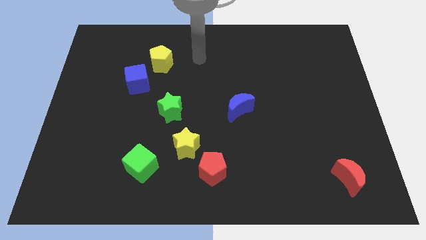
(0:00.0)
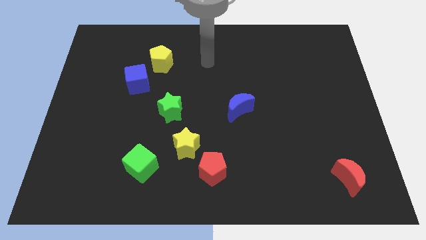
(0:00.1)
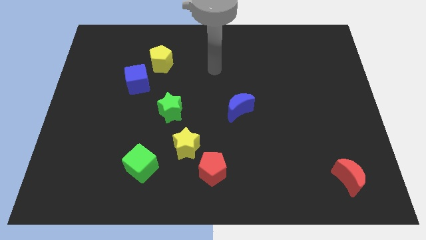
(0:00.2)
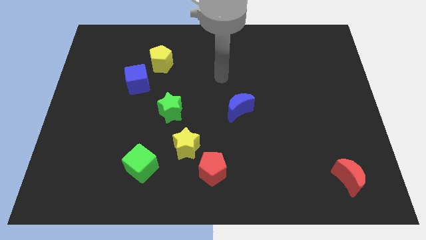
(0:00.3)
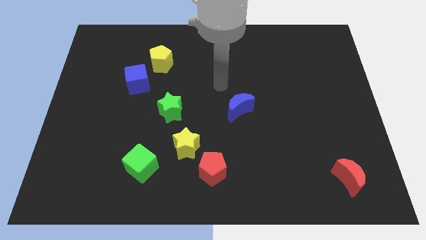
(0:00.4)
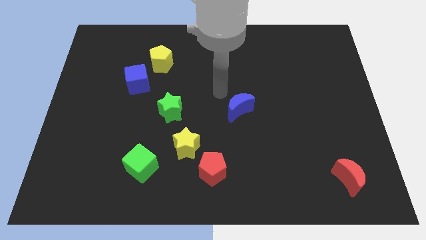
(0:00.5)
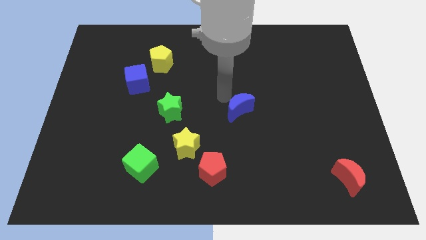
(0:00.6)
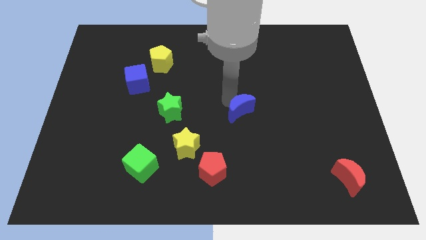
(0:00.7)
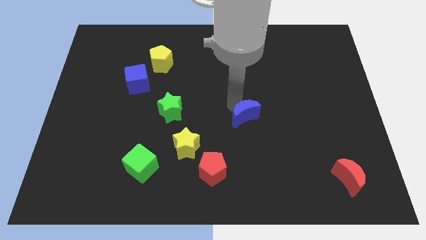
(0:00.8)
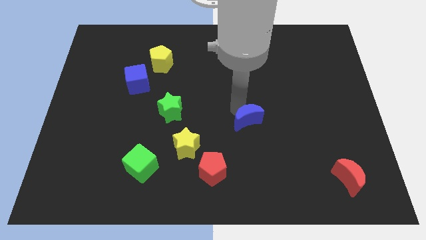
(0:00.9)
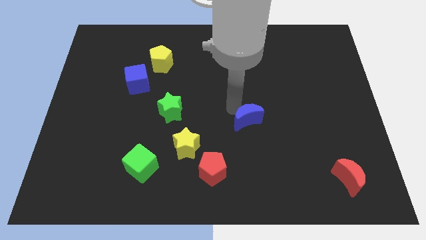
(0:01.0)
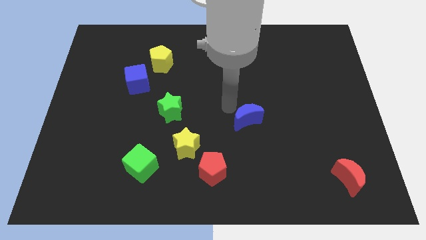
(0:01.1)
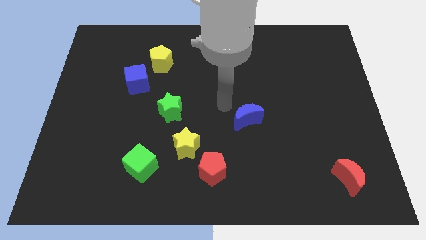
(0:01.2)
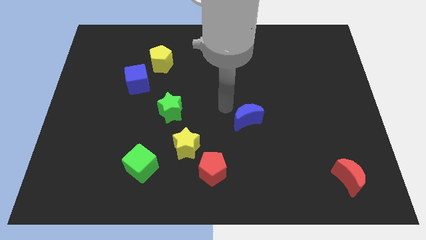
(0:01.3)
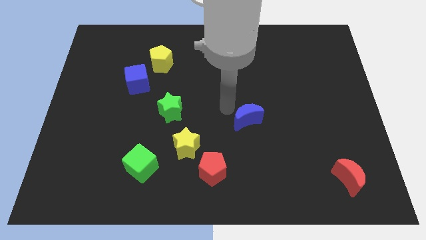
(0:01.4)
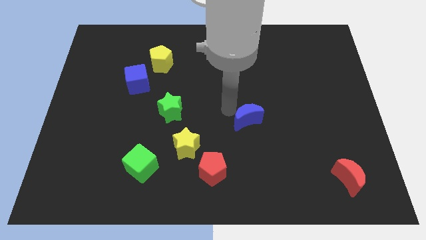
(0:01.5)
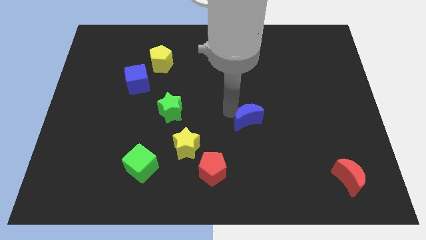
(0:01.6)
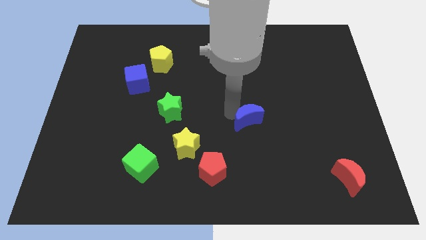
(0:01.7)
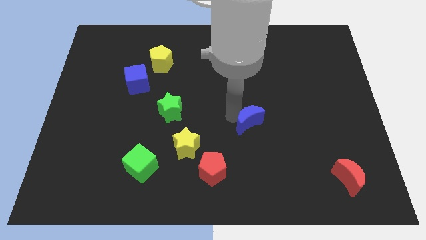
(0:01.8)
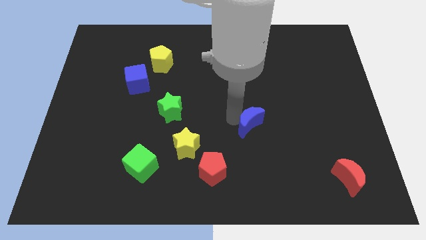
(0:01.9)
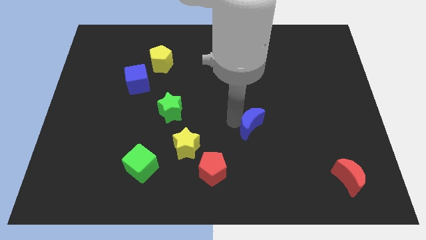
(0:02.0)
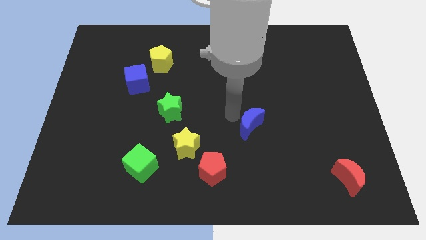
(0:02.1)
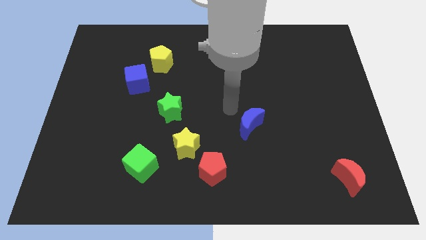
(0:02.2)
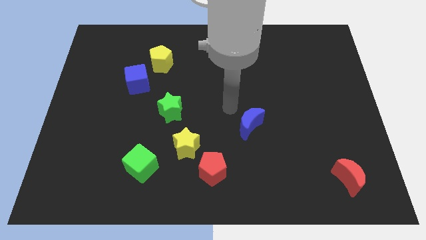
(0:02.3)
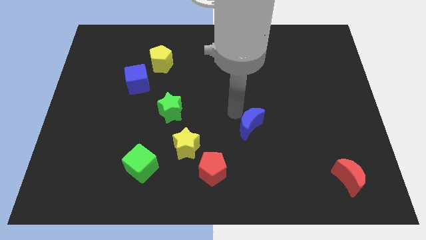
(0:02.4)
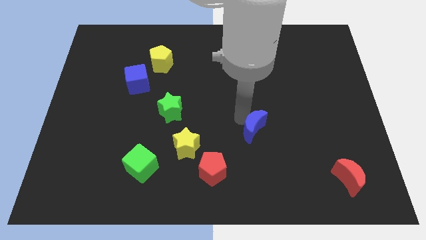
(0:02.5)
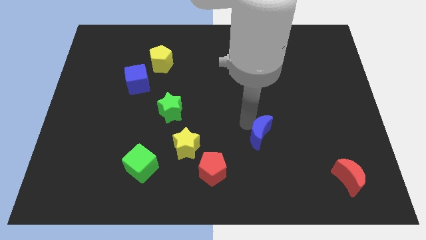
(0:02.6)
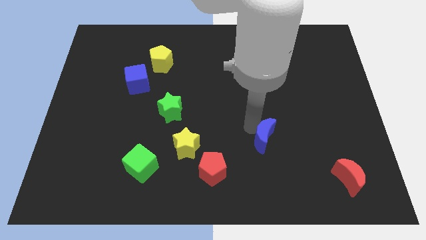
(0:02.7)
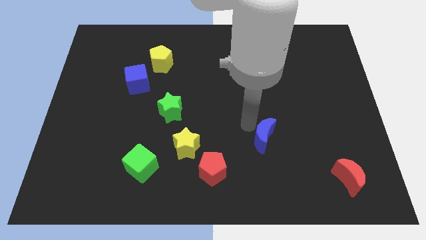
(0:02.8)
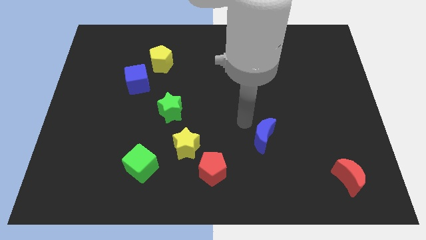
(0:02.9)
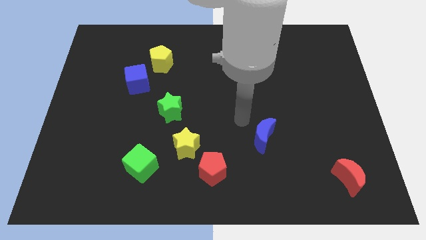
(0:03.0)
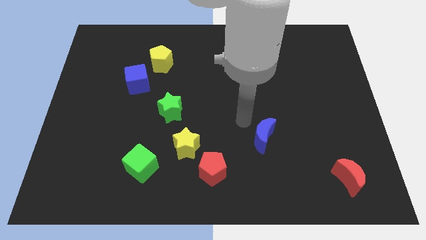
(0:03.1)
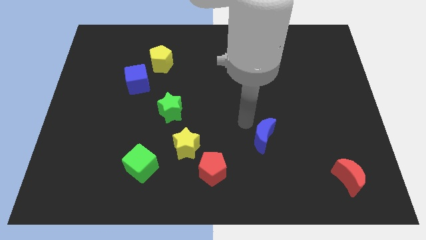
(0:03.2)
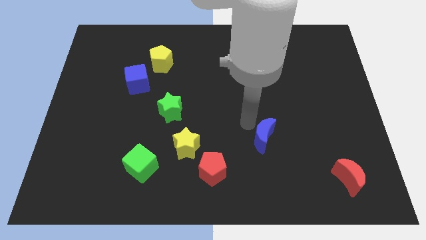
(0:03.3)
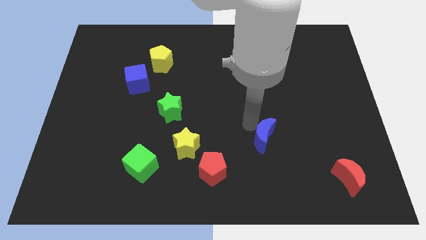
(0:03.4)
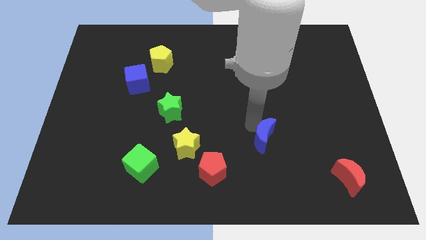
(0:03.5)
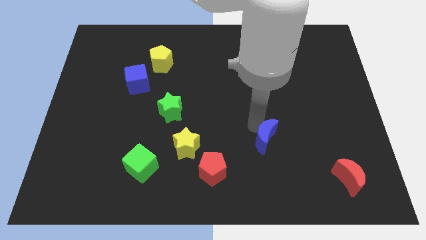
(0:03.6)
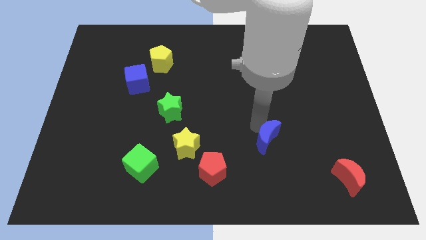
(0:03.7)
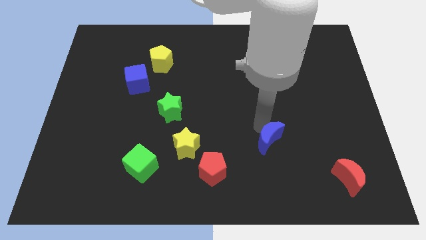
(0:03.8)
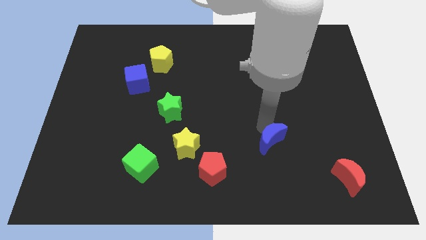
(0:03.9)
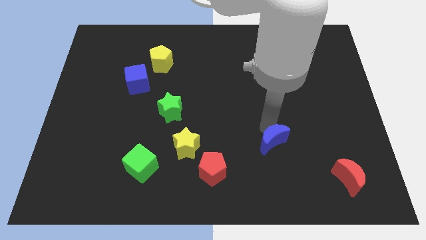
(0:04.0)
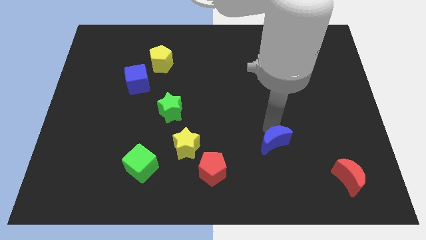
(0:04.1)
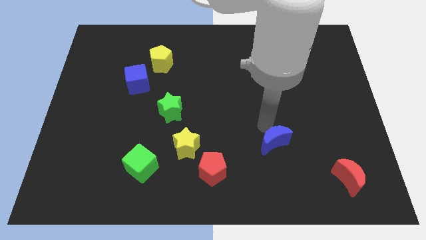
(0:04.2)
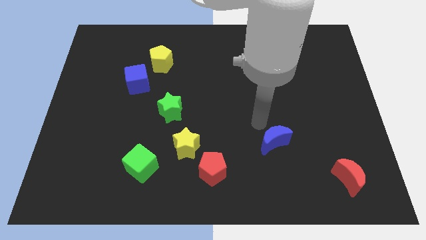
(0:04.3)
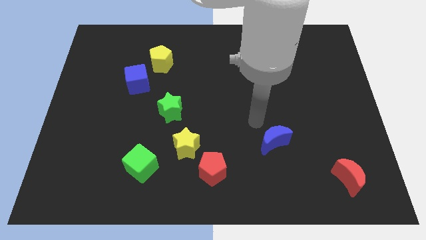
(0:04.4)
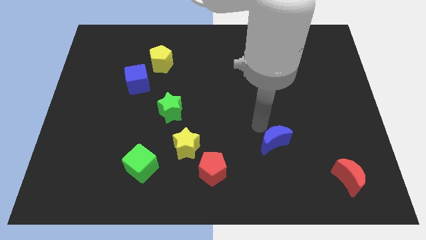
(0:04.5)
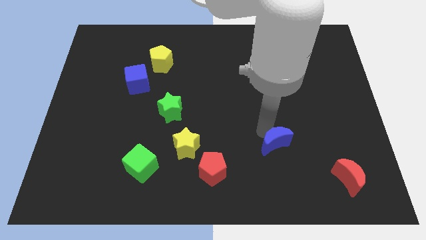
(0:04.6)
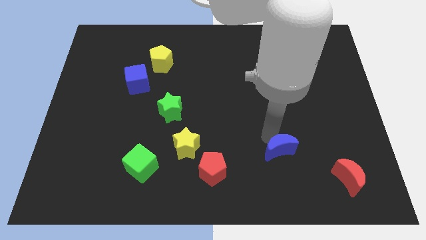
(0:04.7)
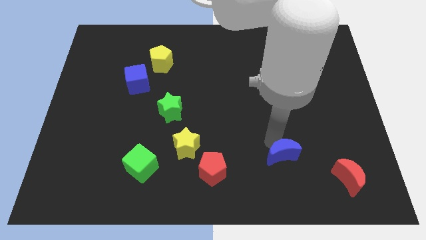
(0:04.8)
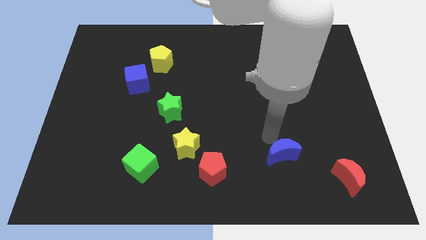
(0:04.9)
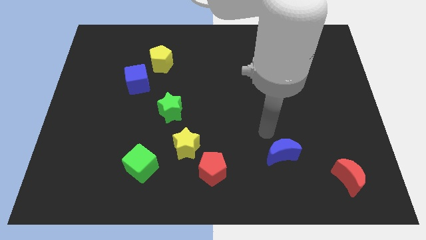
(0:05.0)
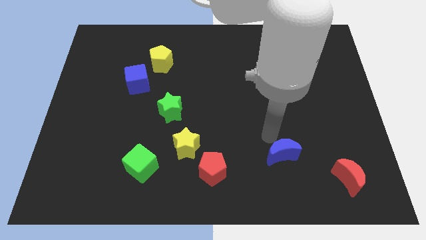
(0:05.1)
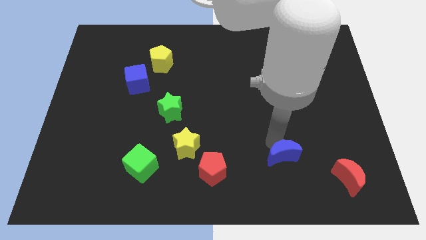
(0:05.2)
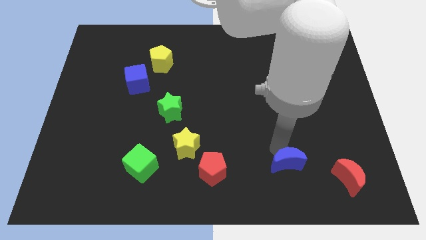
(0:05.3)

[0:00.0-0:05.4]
slide the blue moon just left of the red moon

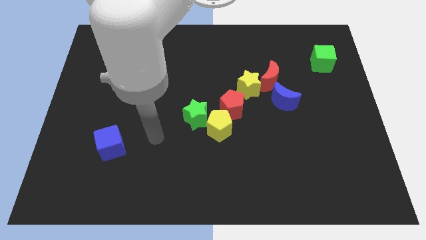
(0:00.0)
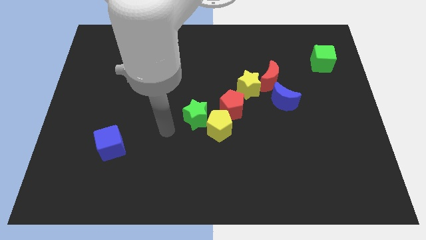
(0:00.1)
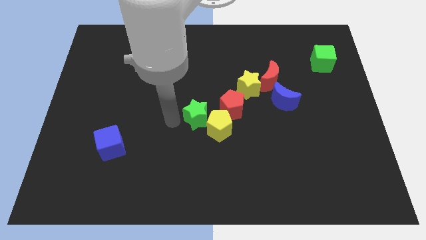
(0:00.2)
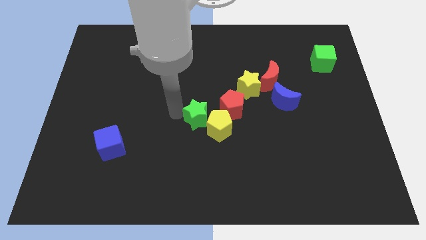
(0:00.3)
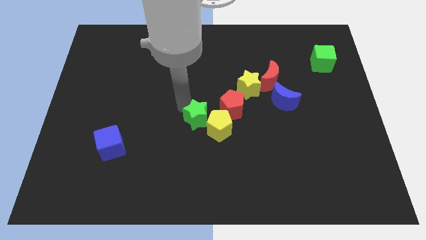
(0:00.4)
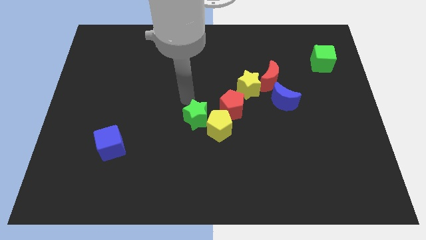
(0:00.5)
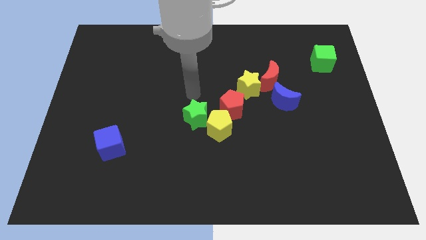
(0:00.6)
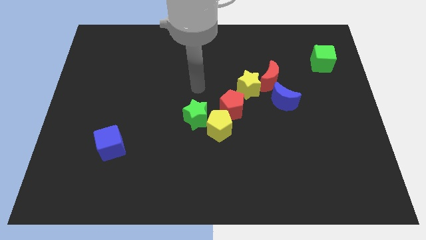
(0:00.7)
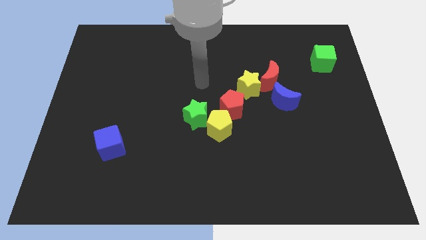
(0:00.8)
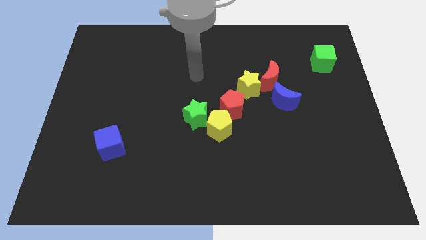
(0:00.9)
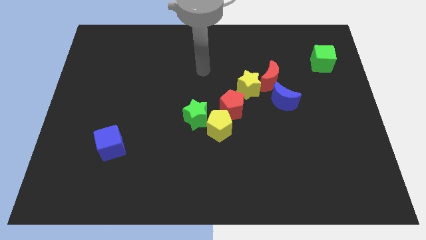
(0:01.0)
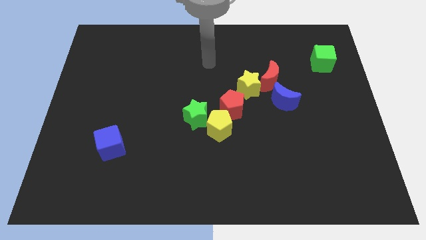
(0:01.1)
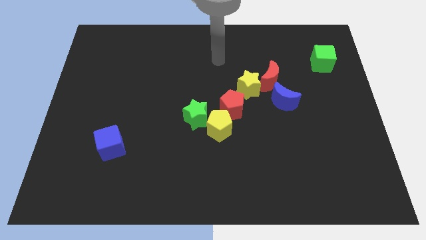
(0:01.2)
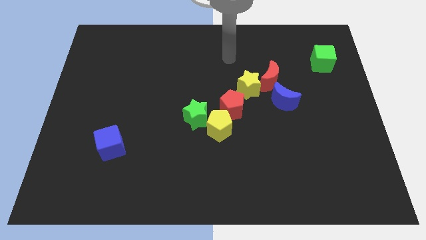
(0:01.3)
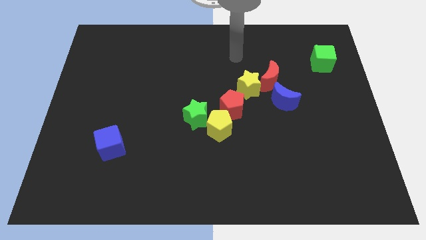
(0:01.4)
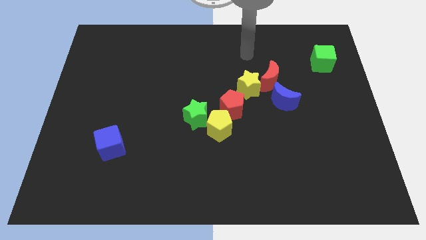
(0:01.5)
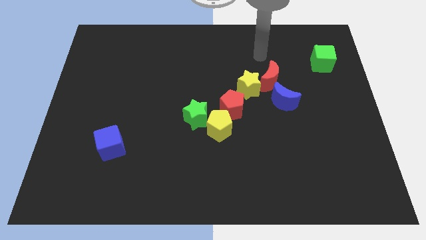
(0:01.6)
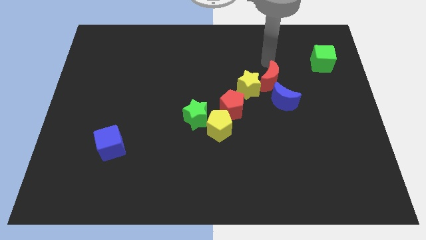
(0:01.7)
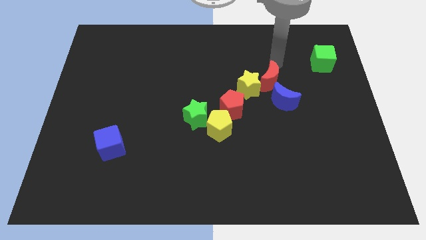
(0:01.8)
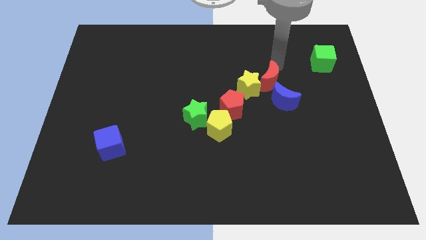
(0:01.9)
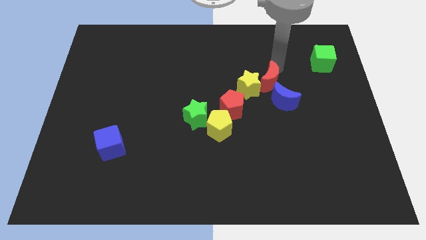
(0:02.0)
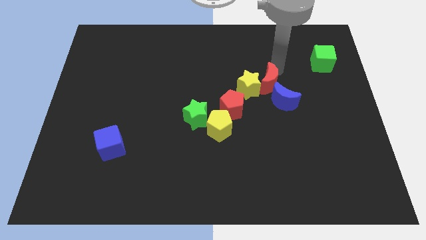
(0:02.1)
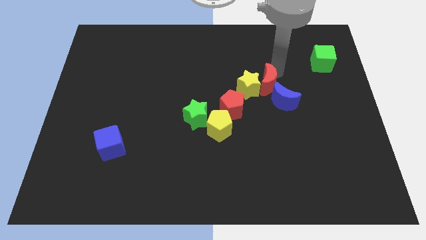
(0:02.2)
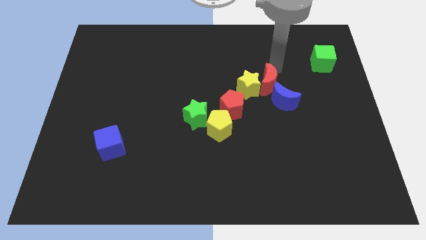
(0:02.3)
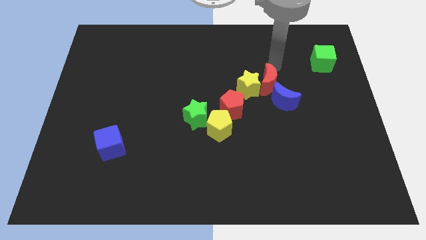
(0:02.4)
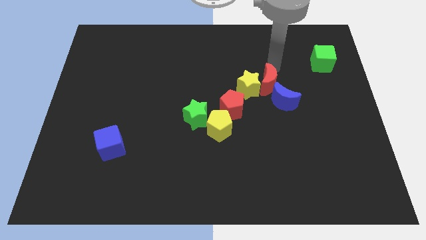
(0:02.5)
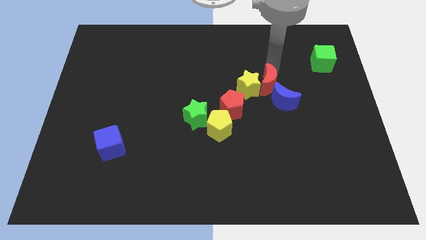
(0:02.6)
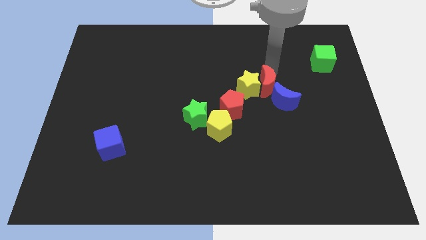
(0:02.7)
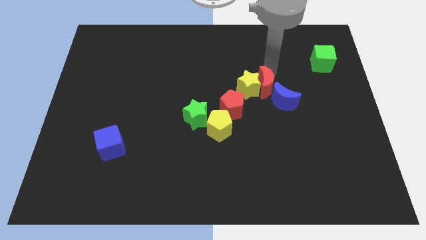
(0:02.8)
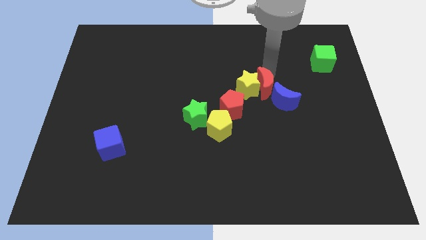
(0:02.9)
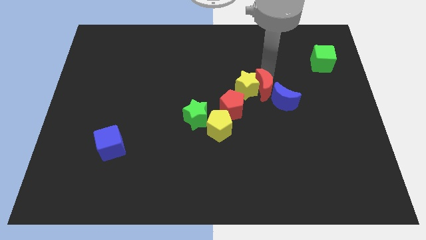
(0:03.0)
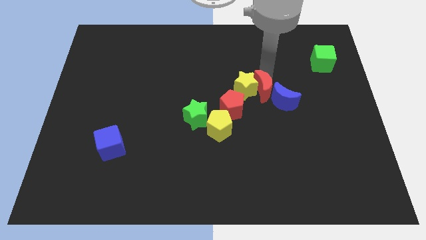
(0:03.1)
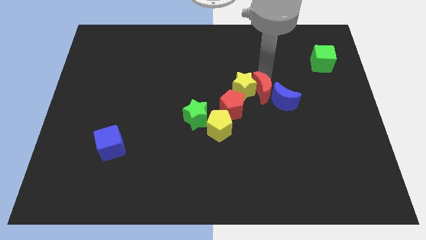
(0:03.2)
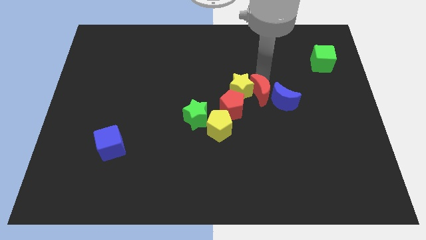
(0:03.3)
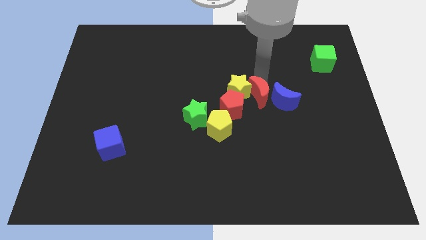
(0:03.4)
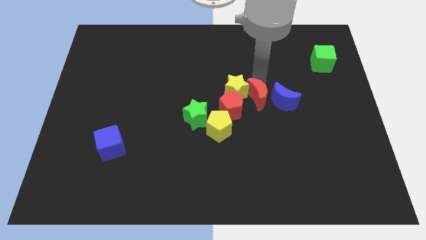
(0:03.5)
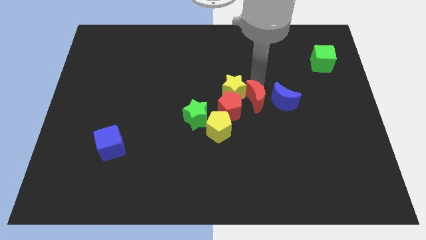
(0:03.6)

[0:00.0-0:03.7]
push the red moon diagonally up and to the right of the yellow pentagon
